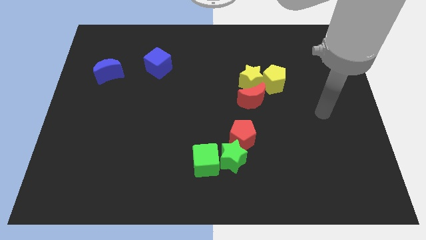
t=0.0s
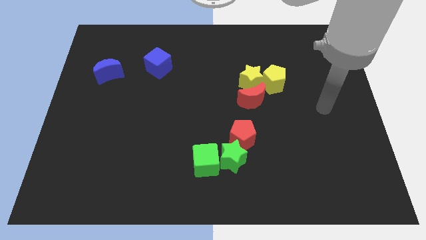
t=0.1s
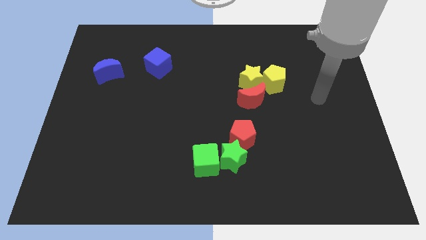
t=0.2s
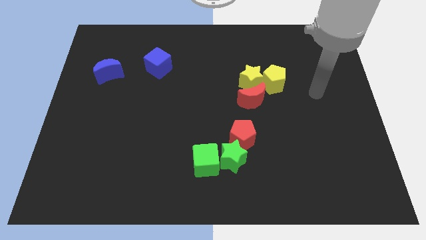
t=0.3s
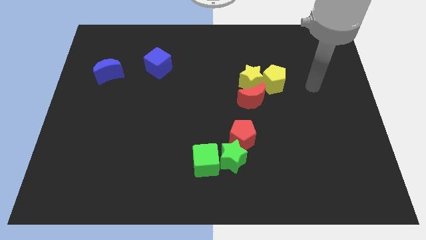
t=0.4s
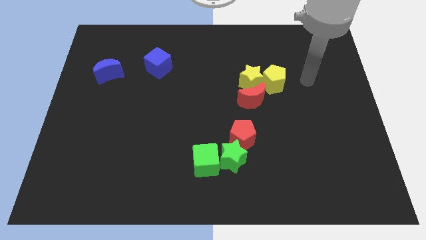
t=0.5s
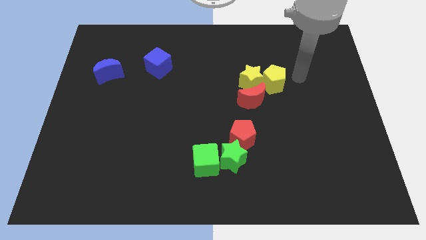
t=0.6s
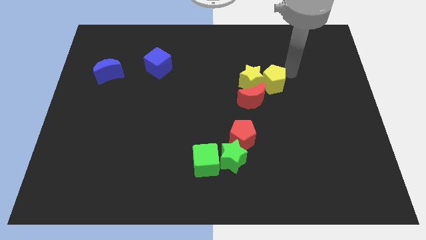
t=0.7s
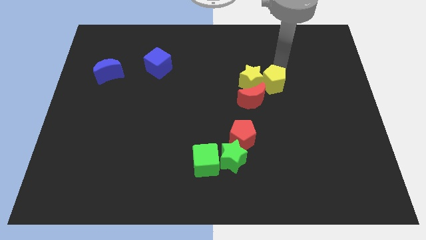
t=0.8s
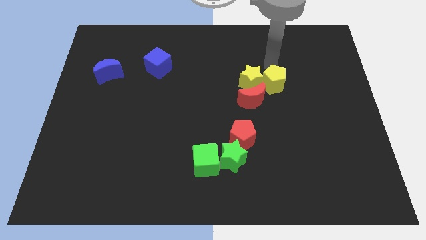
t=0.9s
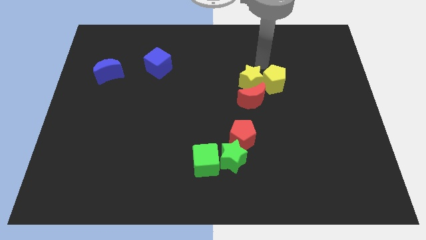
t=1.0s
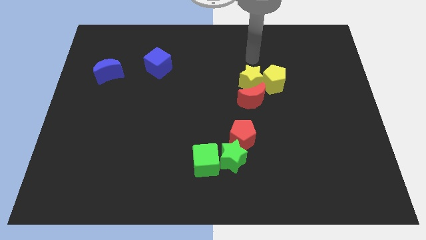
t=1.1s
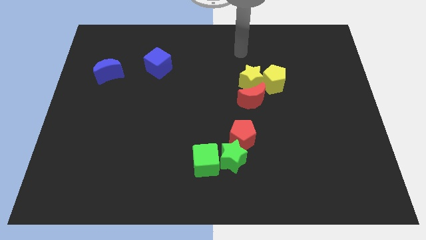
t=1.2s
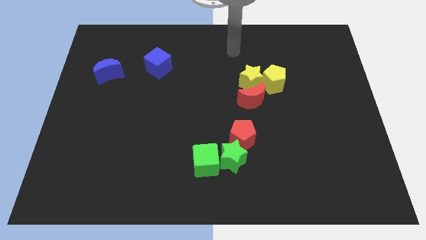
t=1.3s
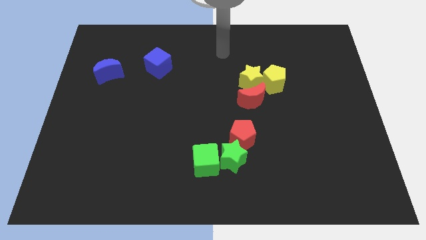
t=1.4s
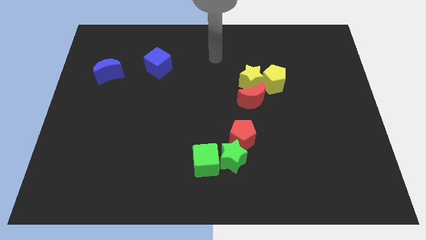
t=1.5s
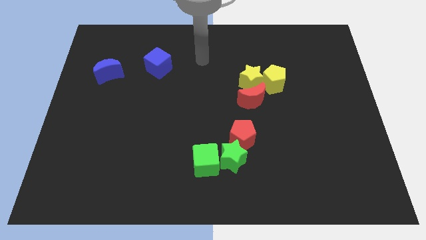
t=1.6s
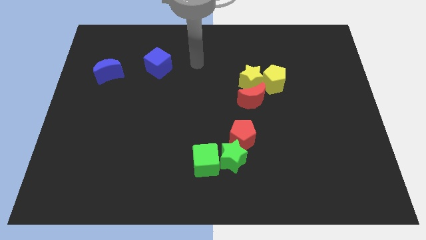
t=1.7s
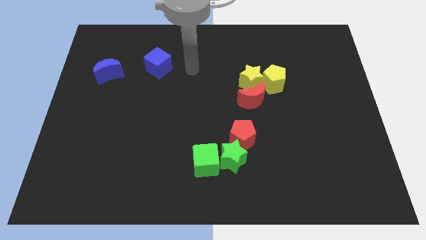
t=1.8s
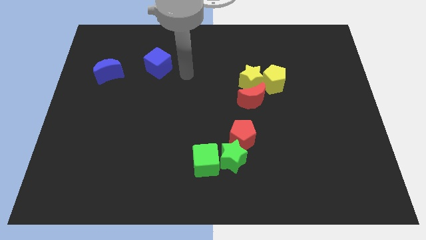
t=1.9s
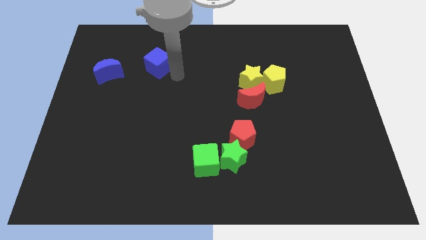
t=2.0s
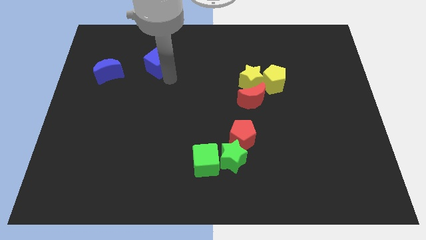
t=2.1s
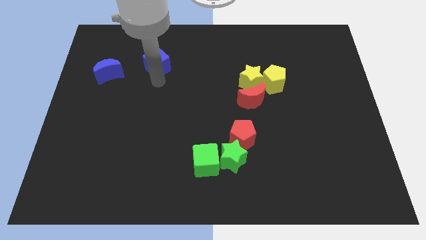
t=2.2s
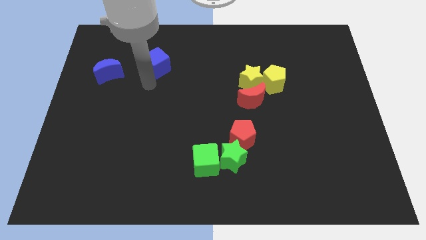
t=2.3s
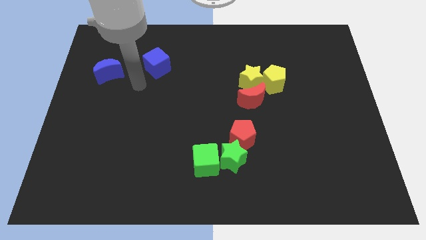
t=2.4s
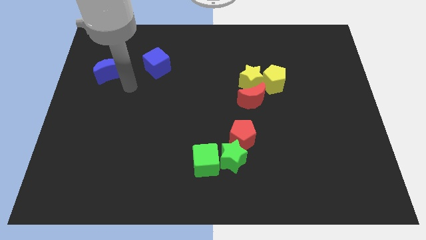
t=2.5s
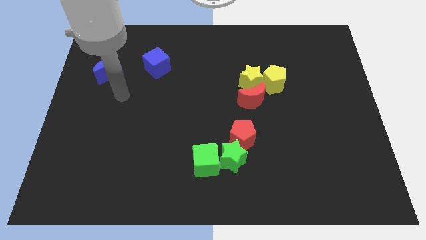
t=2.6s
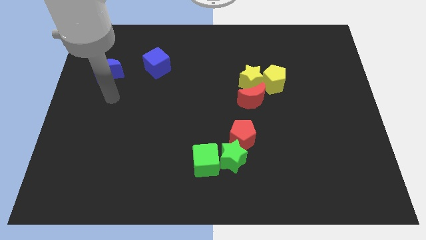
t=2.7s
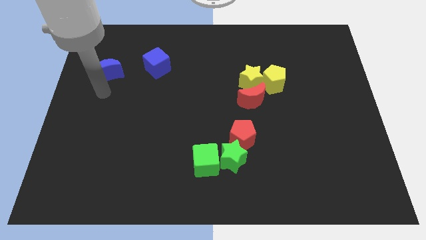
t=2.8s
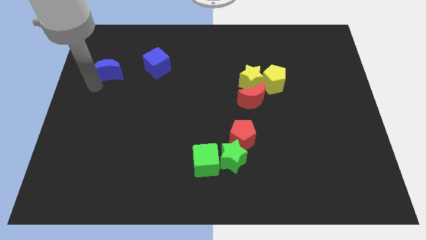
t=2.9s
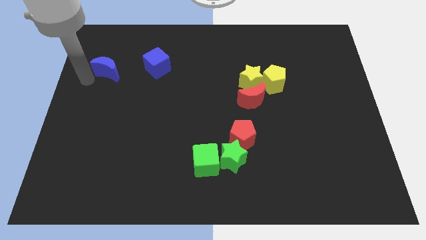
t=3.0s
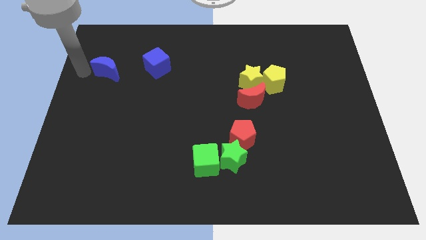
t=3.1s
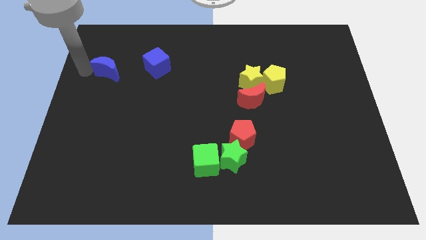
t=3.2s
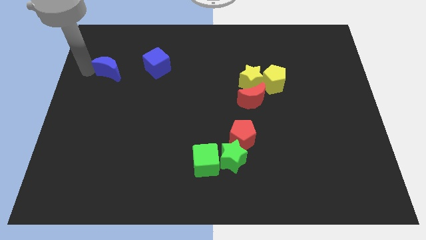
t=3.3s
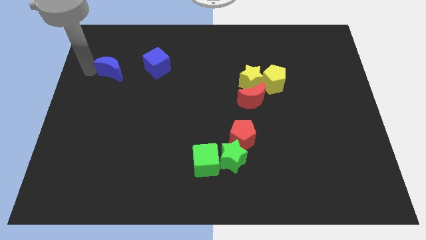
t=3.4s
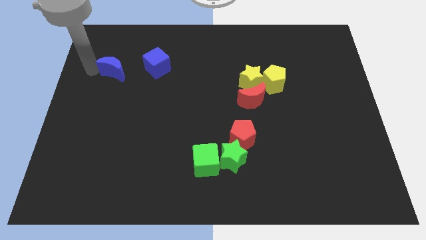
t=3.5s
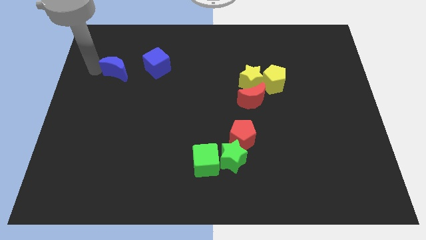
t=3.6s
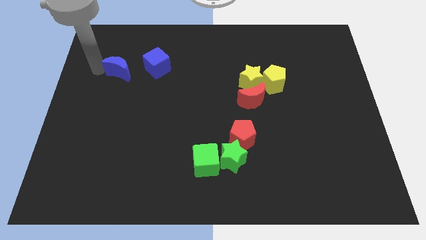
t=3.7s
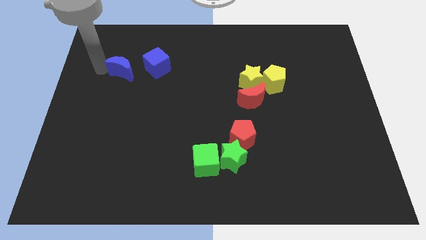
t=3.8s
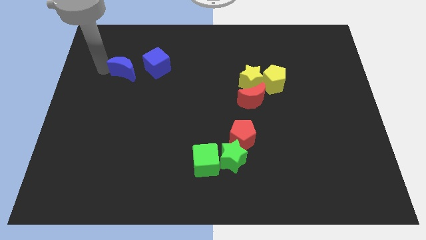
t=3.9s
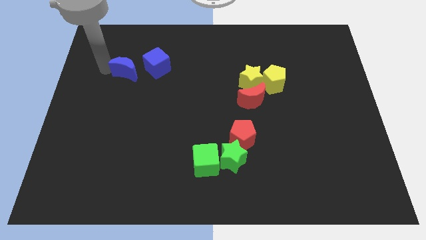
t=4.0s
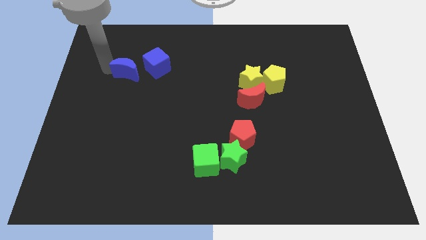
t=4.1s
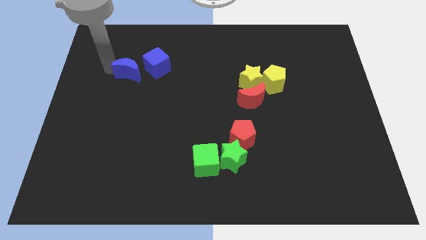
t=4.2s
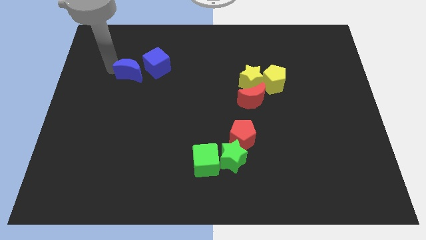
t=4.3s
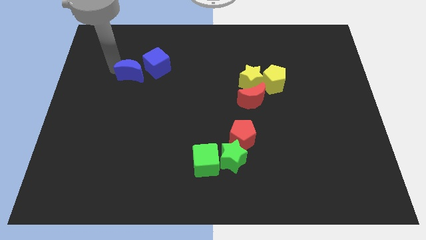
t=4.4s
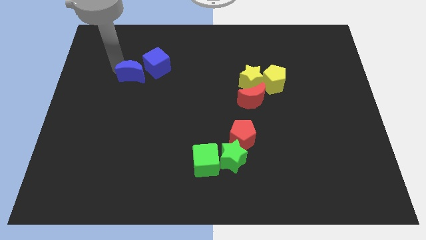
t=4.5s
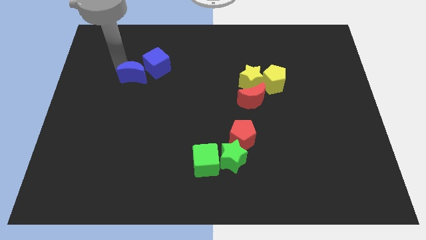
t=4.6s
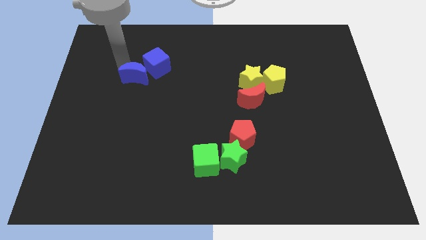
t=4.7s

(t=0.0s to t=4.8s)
move the blue moon close to the blue cube

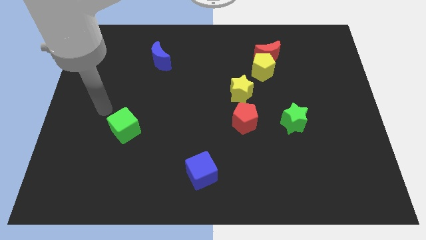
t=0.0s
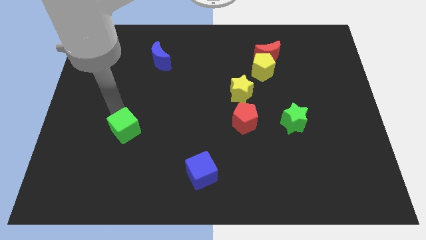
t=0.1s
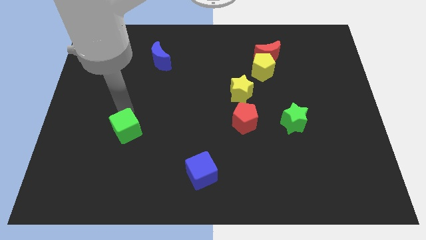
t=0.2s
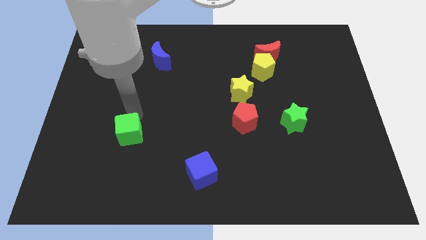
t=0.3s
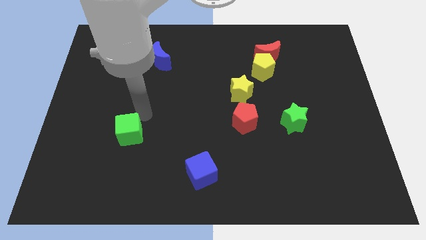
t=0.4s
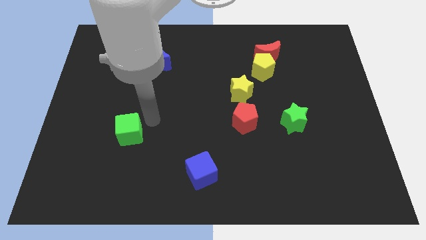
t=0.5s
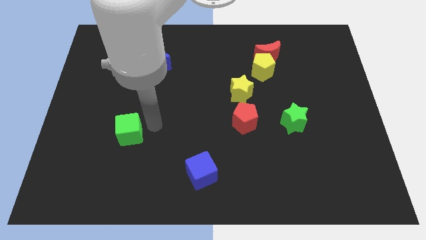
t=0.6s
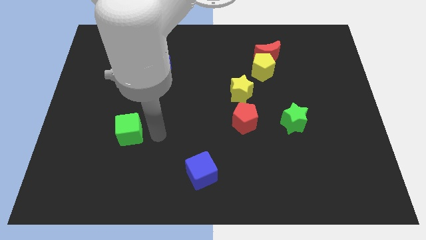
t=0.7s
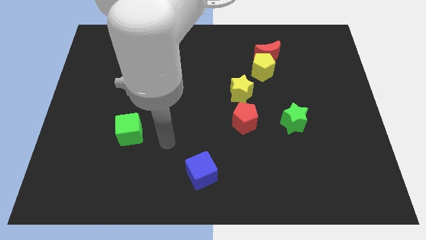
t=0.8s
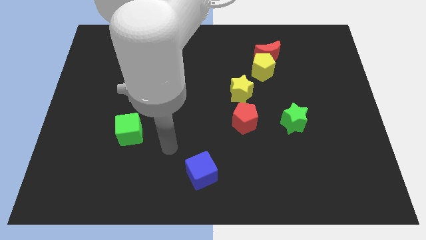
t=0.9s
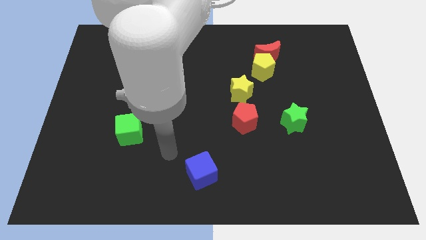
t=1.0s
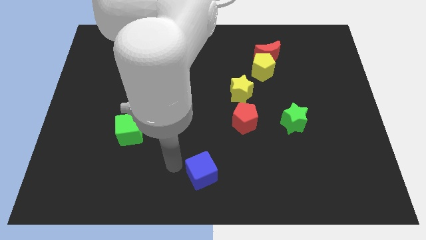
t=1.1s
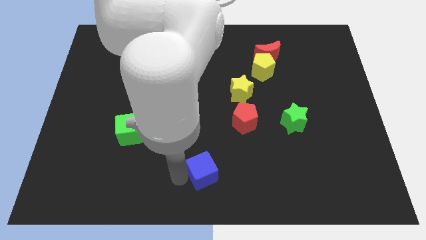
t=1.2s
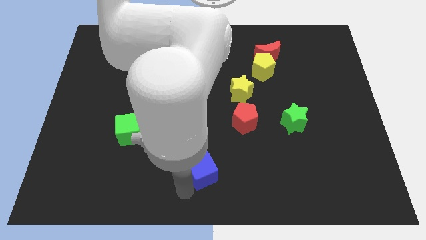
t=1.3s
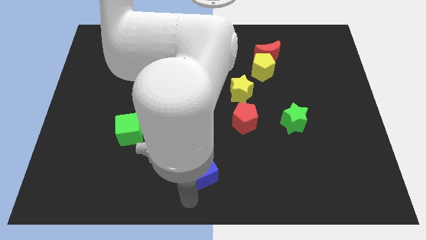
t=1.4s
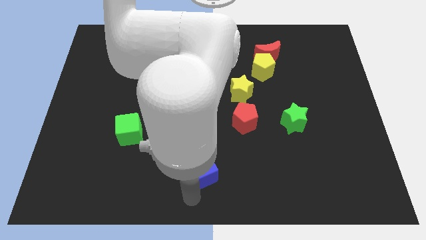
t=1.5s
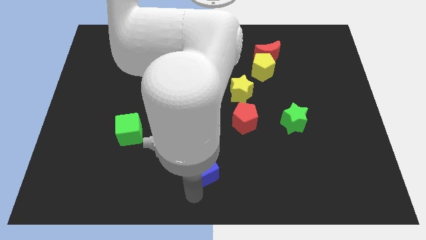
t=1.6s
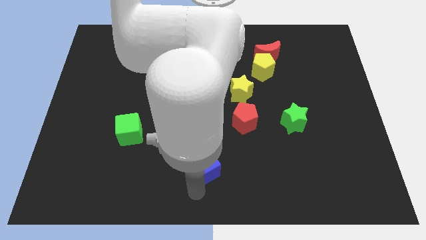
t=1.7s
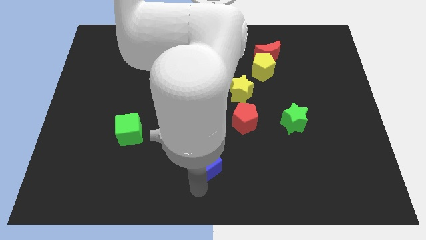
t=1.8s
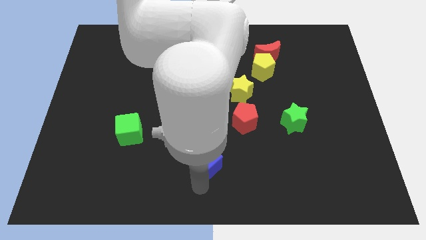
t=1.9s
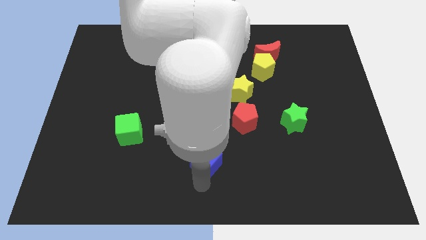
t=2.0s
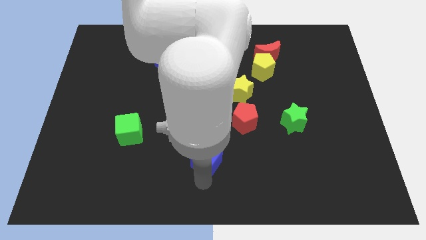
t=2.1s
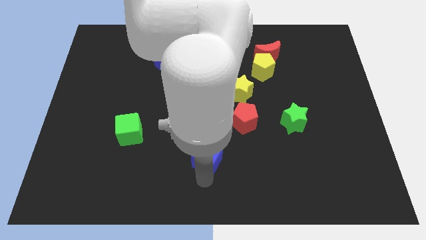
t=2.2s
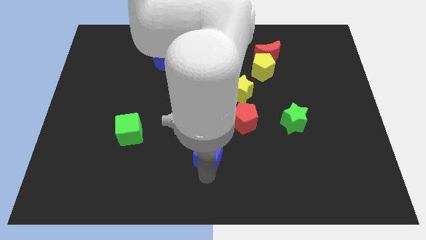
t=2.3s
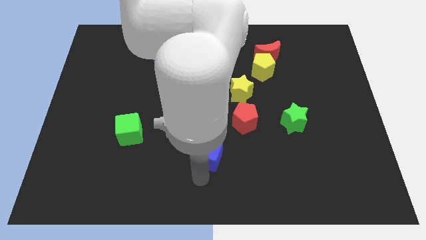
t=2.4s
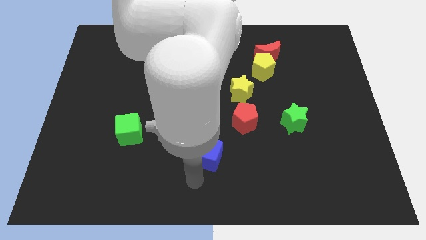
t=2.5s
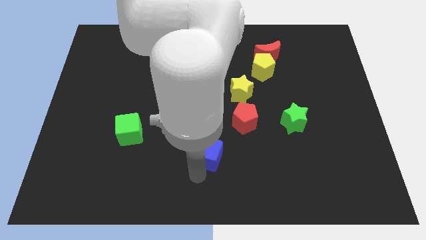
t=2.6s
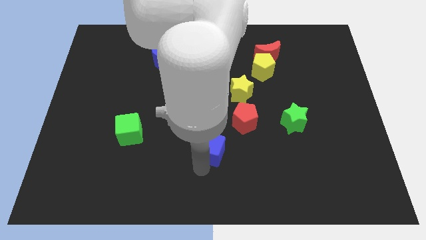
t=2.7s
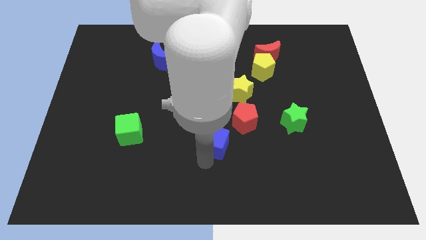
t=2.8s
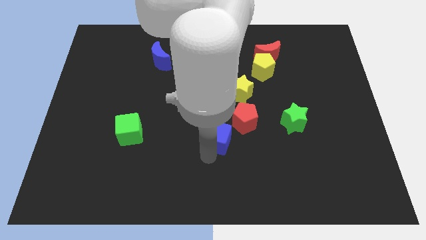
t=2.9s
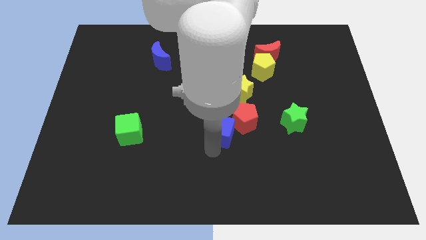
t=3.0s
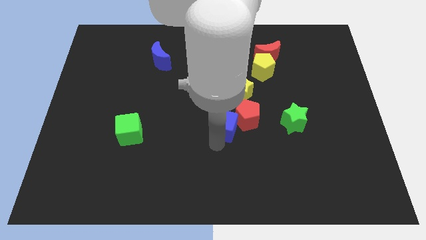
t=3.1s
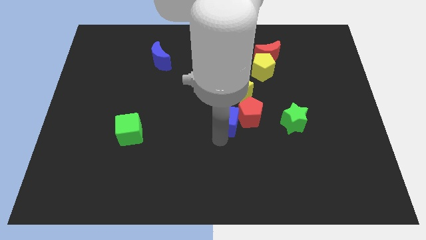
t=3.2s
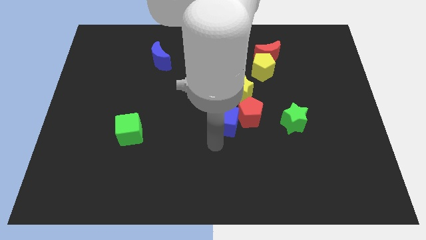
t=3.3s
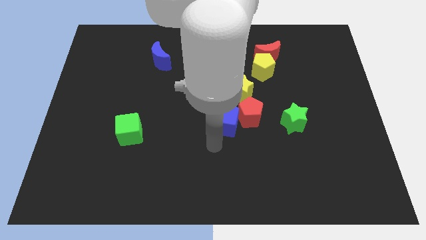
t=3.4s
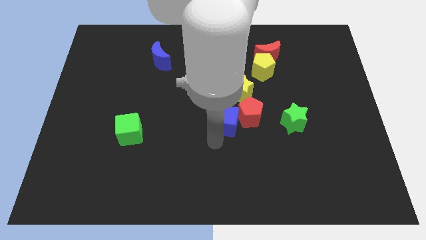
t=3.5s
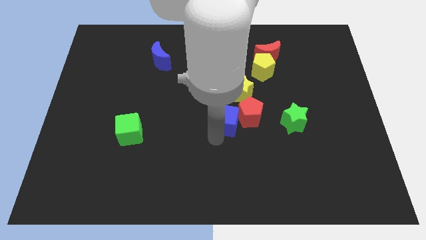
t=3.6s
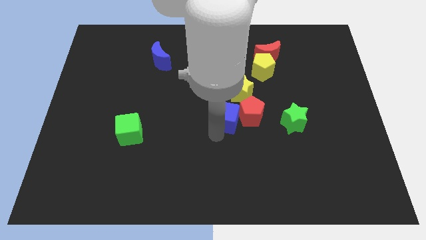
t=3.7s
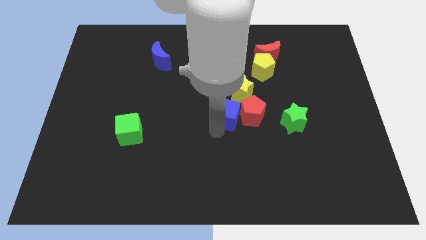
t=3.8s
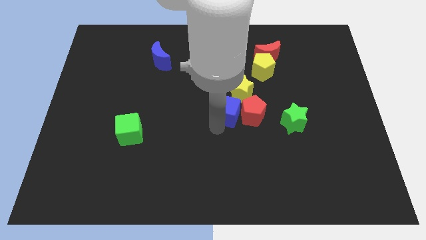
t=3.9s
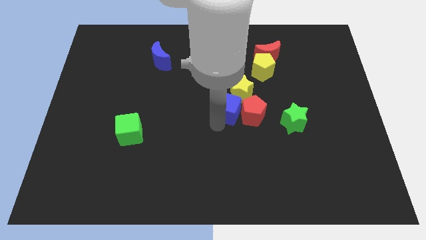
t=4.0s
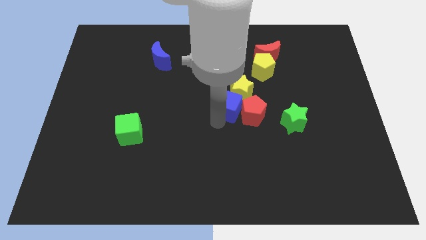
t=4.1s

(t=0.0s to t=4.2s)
put the blue cube to the yellow star
